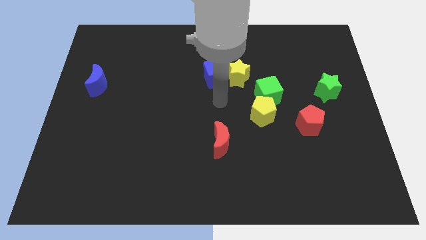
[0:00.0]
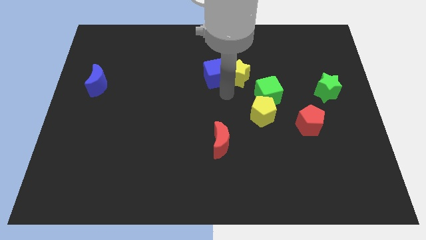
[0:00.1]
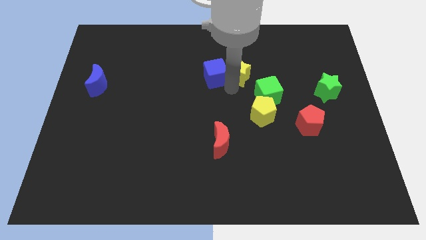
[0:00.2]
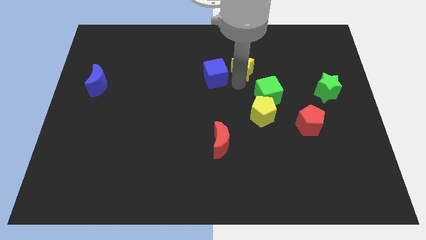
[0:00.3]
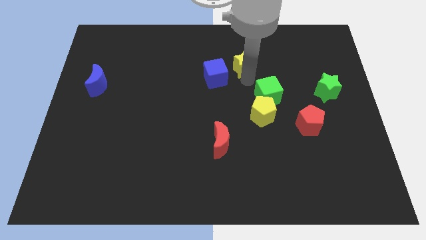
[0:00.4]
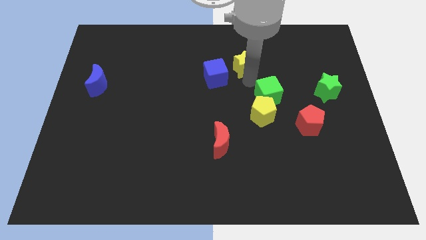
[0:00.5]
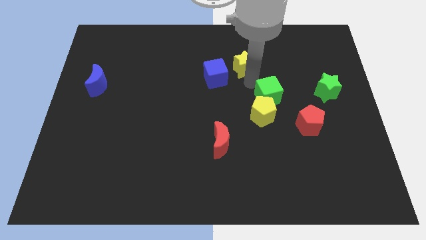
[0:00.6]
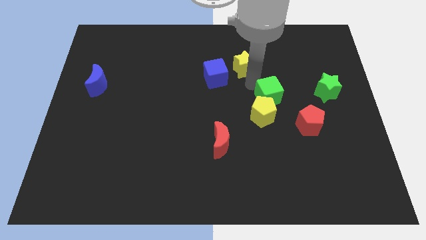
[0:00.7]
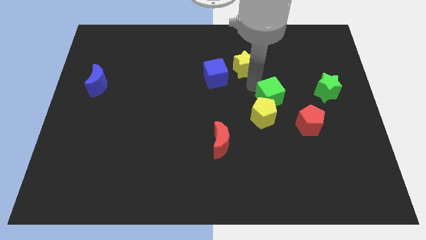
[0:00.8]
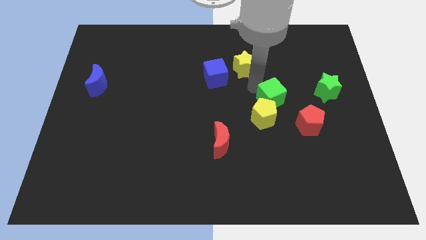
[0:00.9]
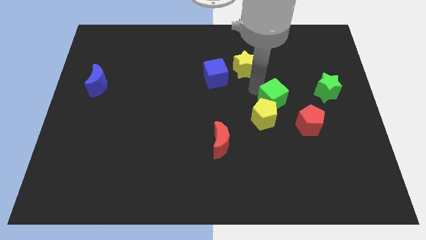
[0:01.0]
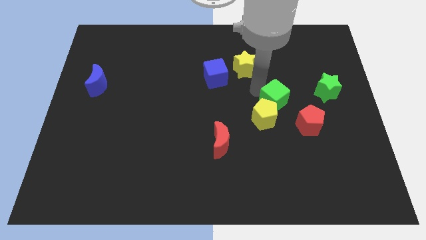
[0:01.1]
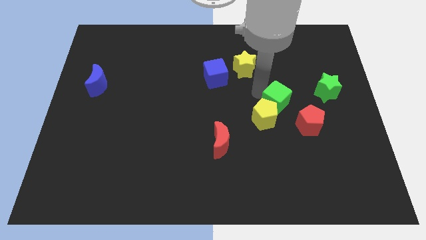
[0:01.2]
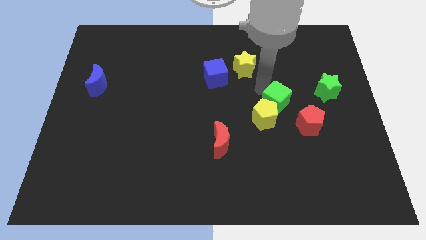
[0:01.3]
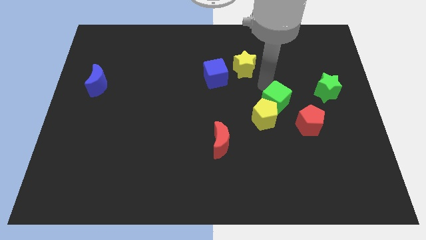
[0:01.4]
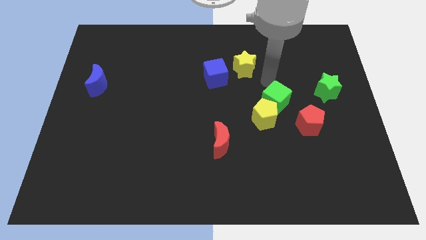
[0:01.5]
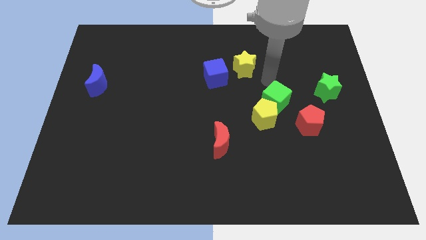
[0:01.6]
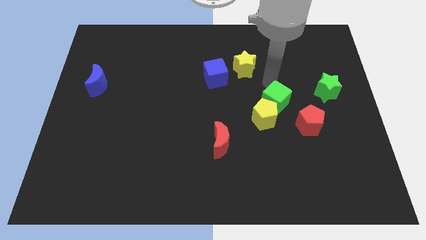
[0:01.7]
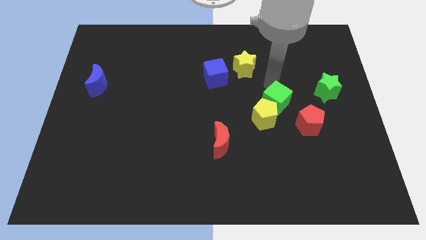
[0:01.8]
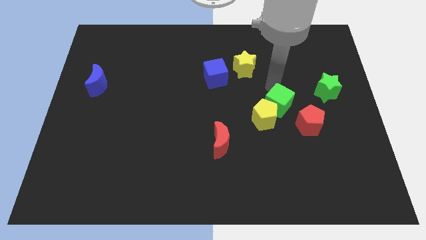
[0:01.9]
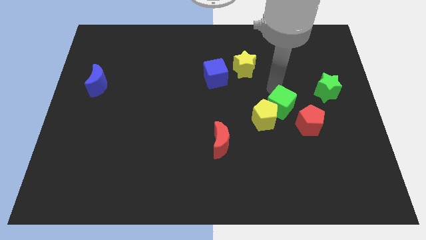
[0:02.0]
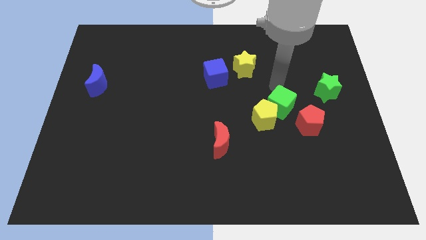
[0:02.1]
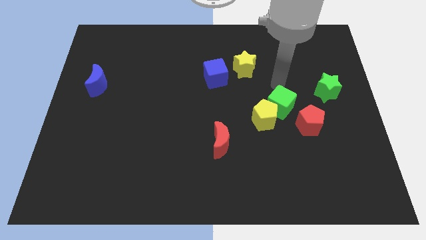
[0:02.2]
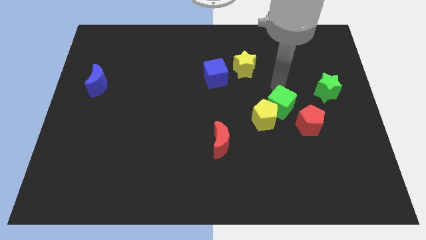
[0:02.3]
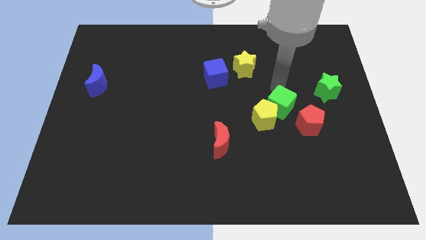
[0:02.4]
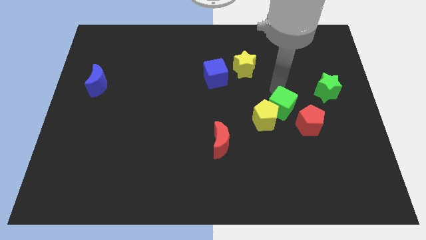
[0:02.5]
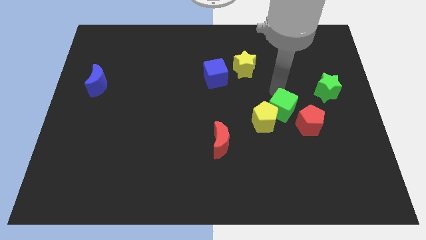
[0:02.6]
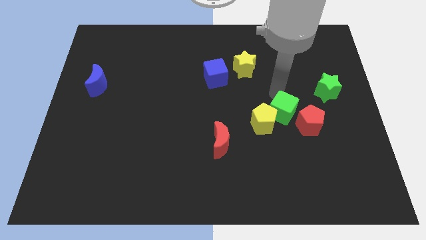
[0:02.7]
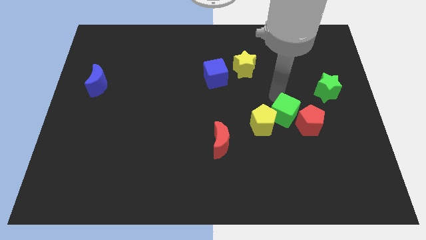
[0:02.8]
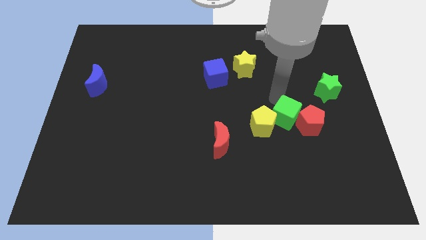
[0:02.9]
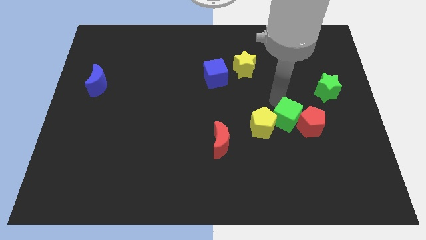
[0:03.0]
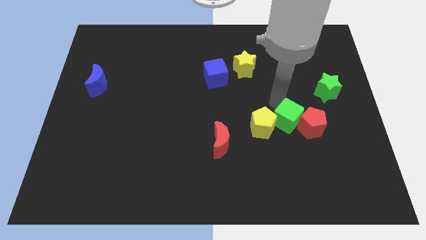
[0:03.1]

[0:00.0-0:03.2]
slide the green cube slightly downwards

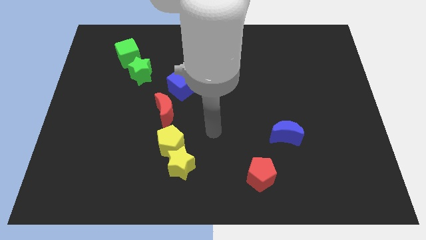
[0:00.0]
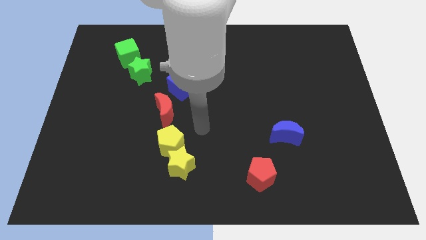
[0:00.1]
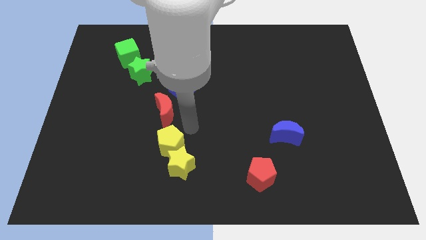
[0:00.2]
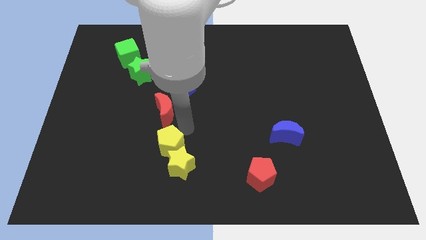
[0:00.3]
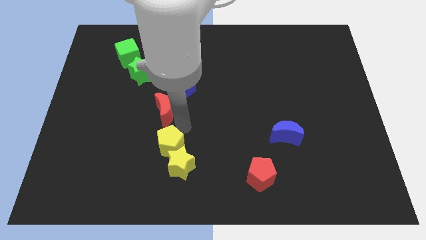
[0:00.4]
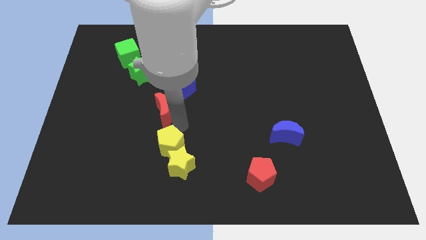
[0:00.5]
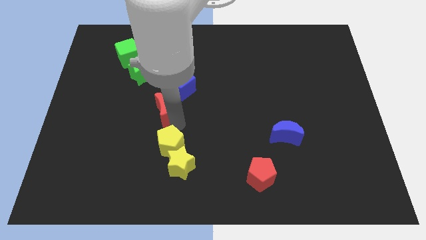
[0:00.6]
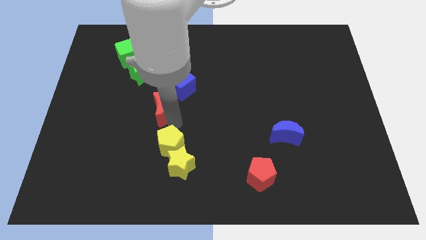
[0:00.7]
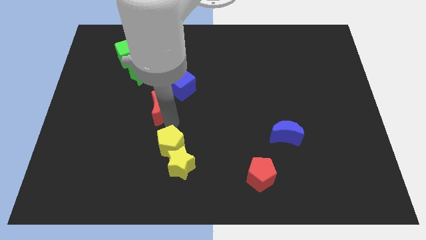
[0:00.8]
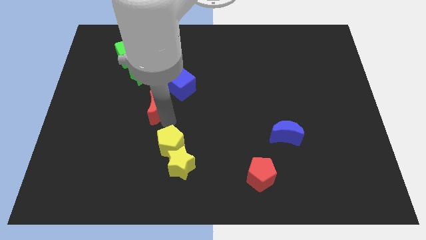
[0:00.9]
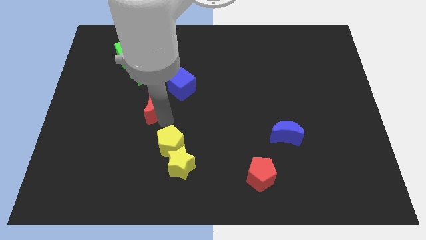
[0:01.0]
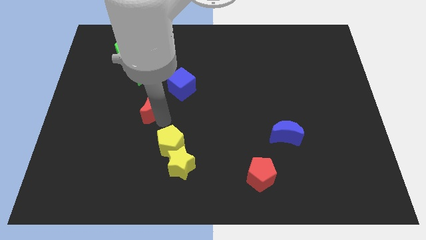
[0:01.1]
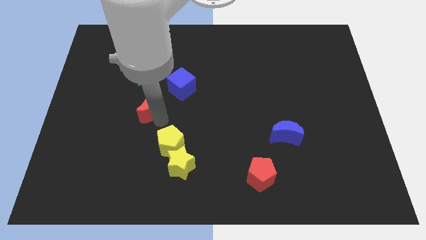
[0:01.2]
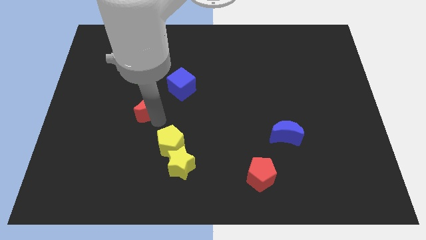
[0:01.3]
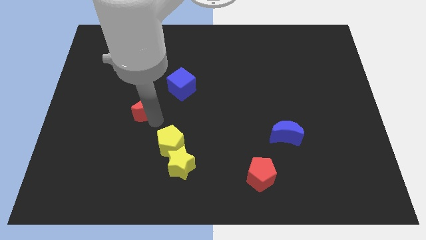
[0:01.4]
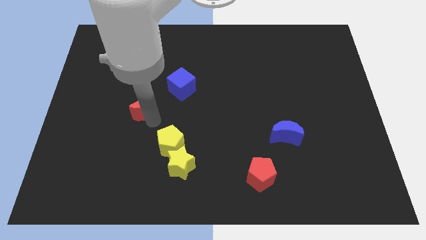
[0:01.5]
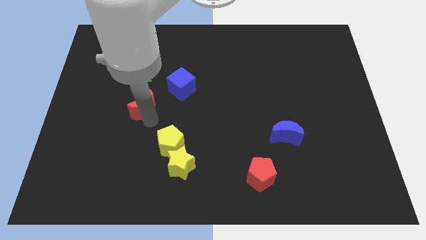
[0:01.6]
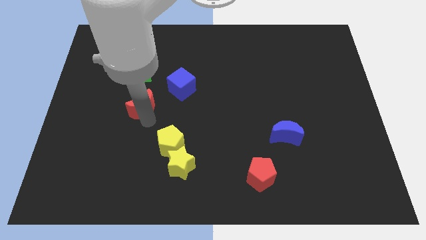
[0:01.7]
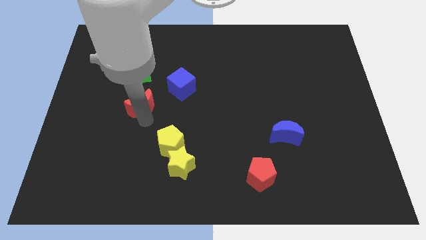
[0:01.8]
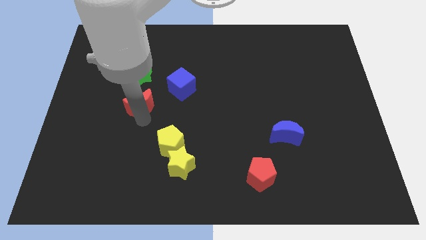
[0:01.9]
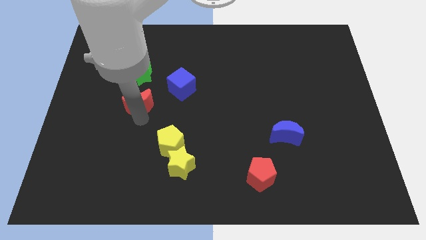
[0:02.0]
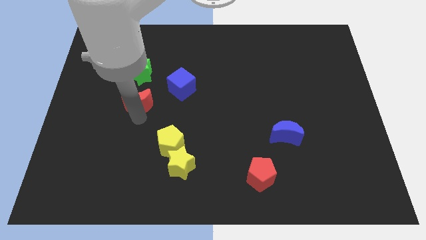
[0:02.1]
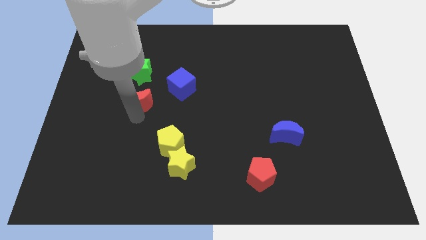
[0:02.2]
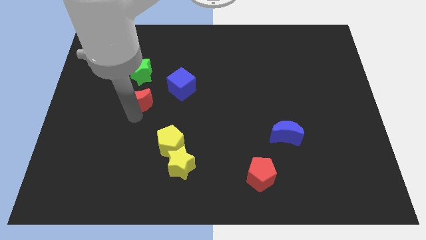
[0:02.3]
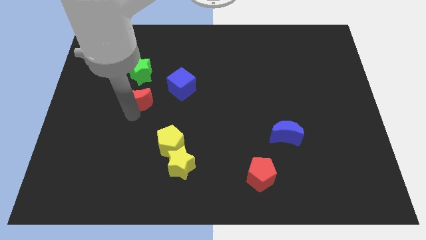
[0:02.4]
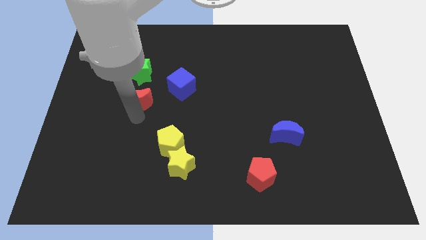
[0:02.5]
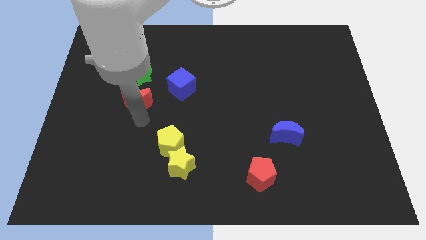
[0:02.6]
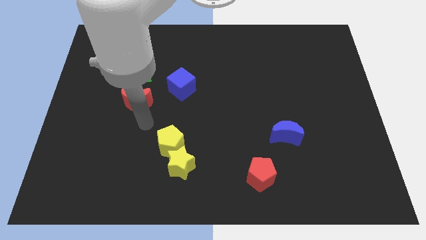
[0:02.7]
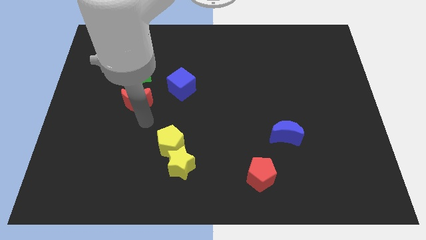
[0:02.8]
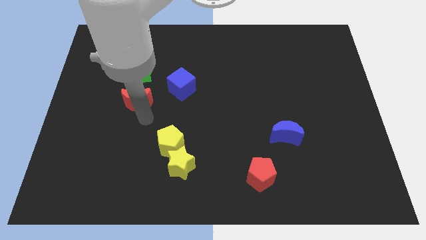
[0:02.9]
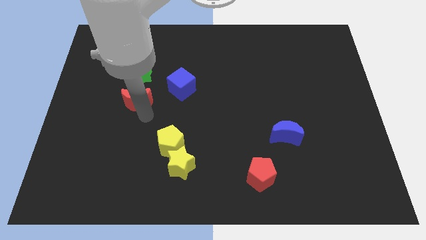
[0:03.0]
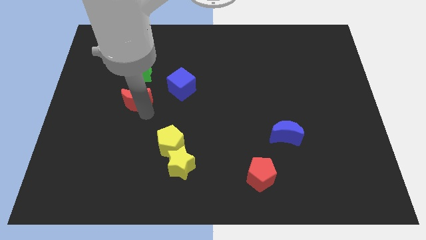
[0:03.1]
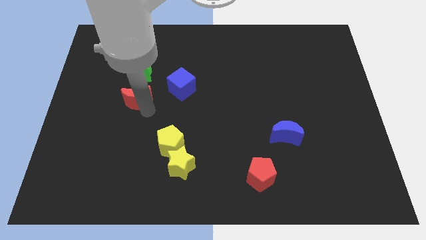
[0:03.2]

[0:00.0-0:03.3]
slide the red moon up and left somewhat

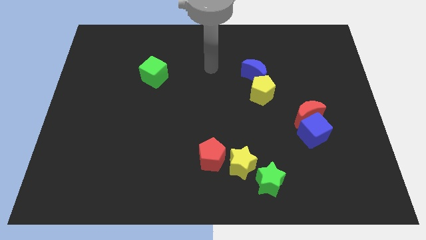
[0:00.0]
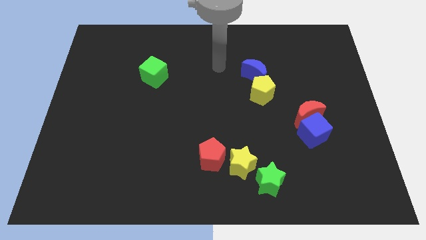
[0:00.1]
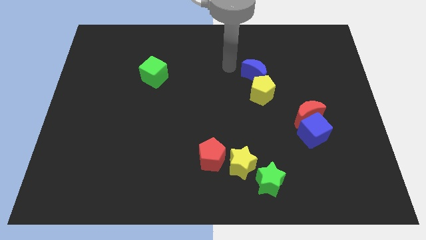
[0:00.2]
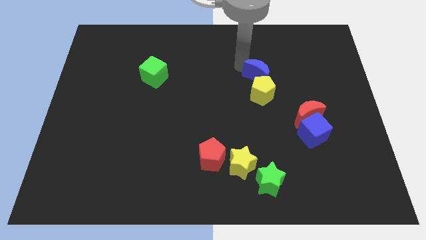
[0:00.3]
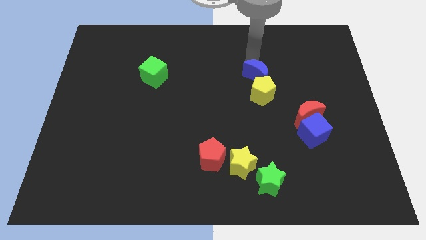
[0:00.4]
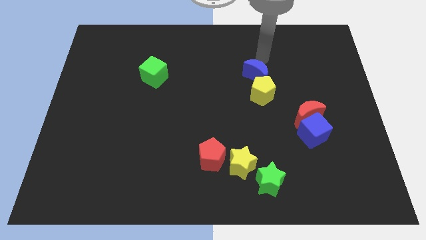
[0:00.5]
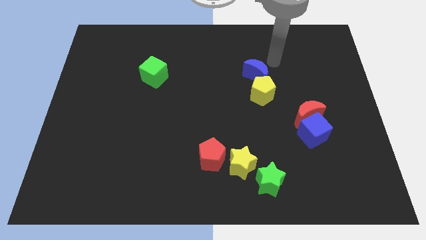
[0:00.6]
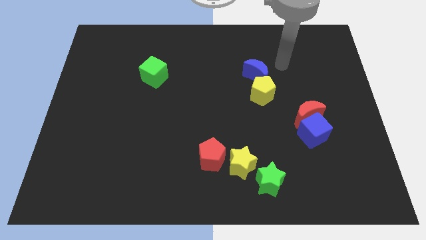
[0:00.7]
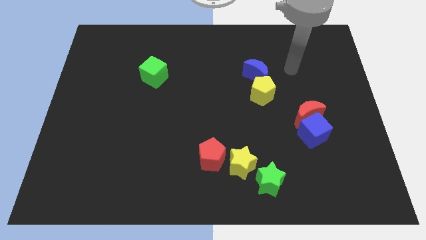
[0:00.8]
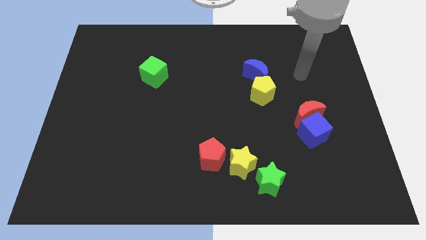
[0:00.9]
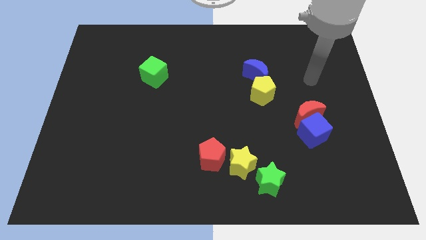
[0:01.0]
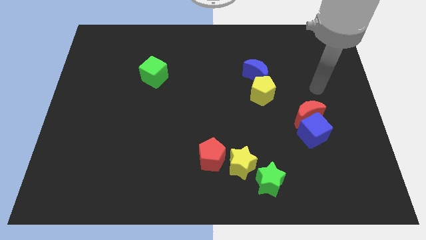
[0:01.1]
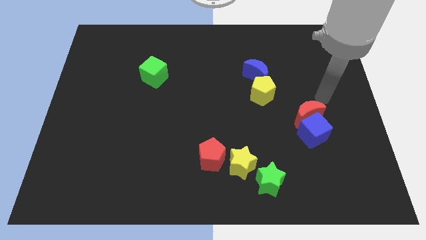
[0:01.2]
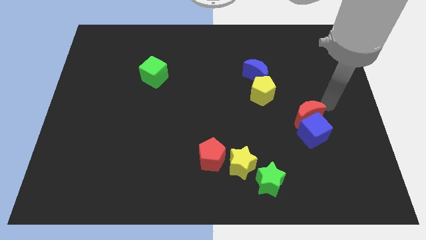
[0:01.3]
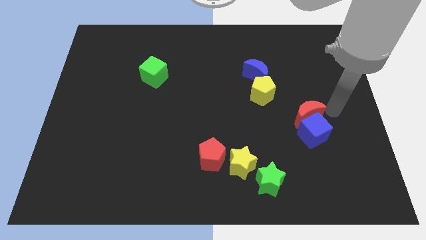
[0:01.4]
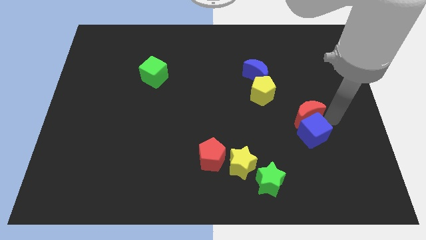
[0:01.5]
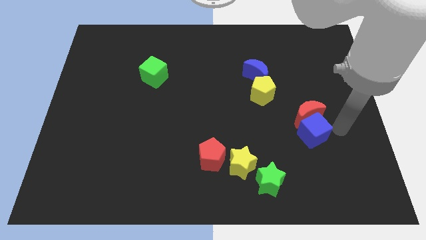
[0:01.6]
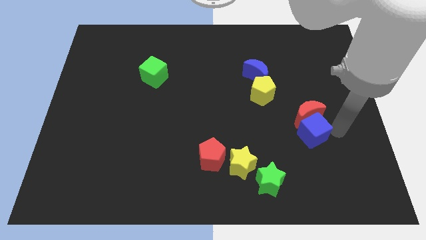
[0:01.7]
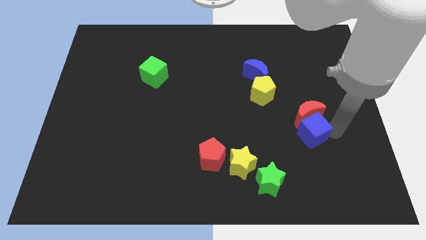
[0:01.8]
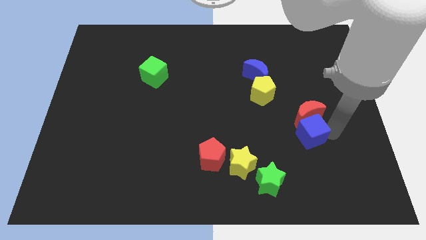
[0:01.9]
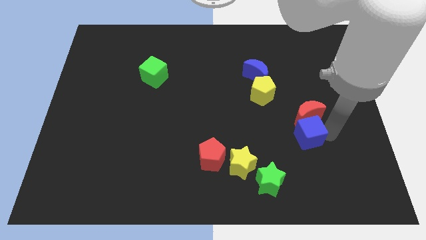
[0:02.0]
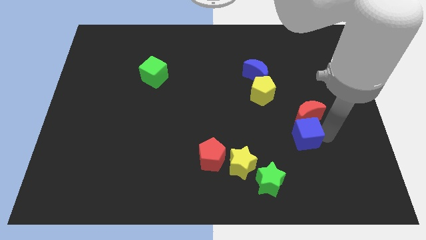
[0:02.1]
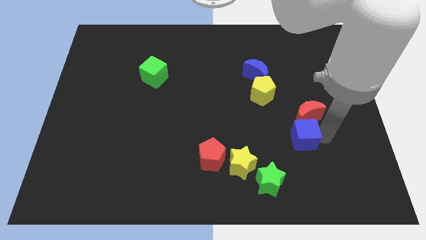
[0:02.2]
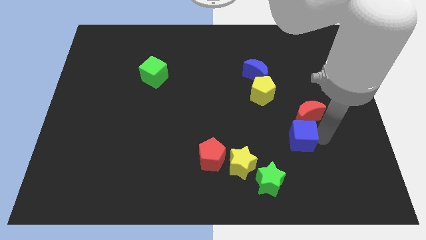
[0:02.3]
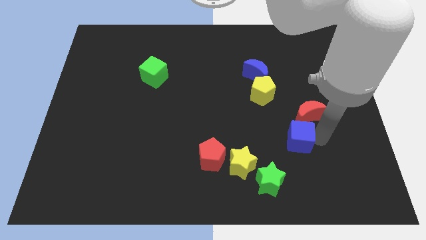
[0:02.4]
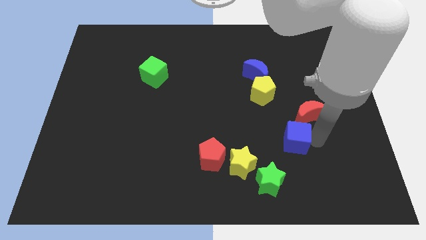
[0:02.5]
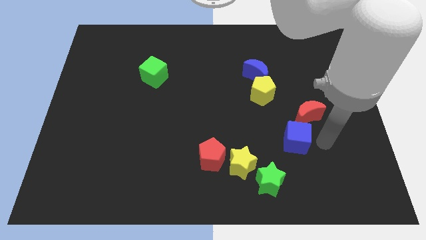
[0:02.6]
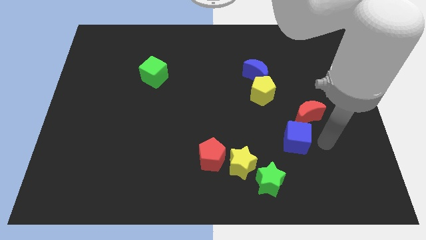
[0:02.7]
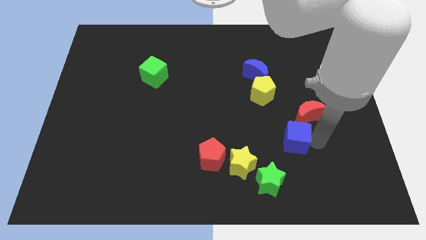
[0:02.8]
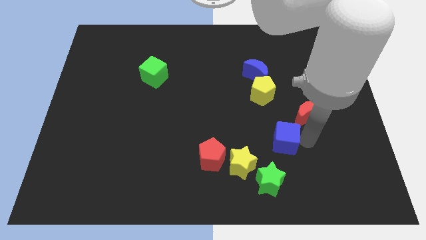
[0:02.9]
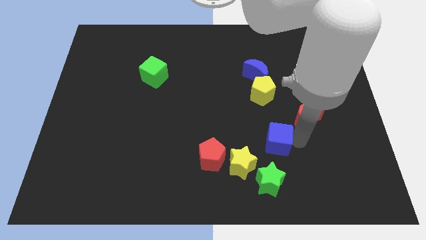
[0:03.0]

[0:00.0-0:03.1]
push the blue cube a bit to the left
